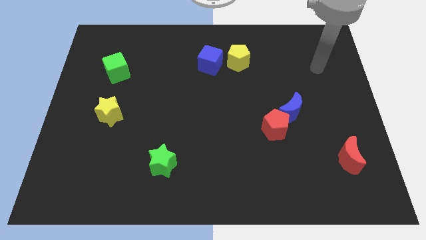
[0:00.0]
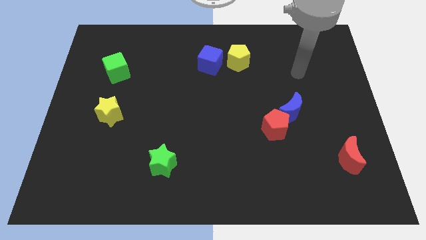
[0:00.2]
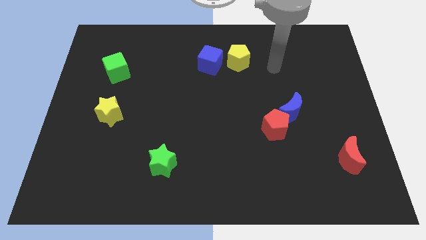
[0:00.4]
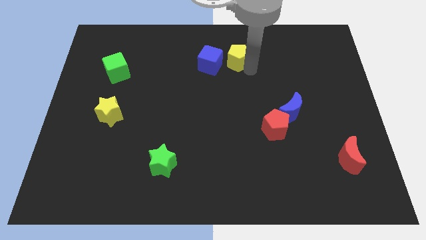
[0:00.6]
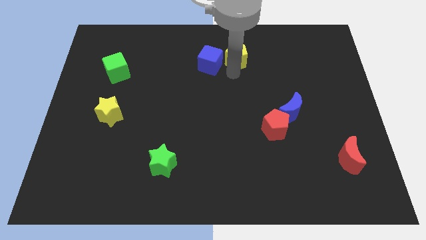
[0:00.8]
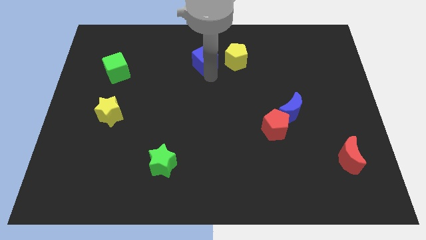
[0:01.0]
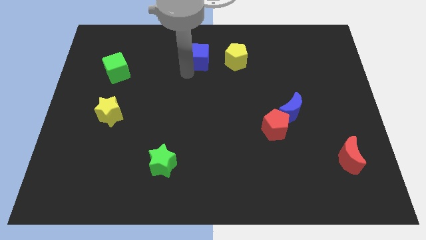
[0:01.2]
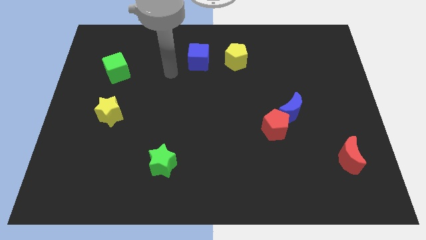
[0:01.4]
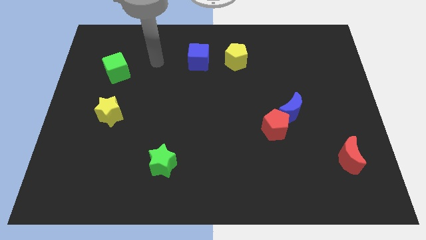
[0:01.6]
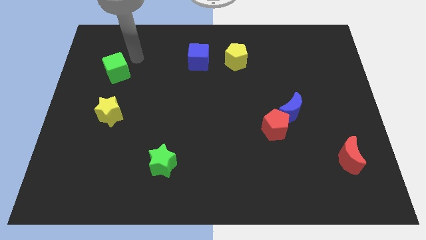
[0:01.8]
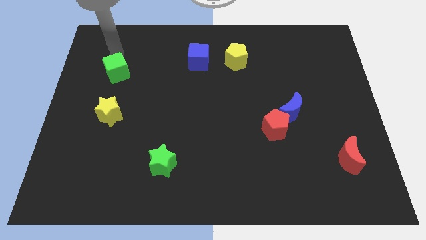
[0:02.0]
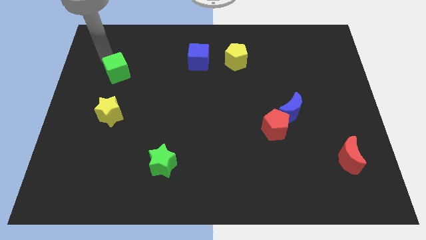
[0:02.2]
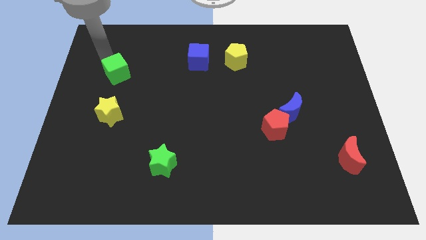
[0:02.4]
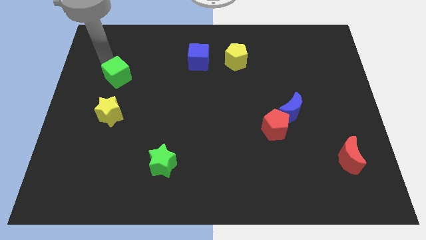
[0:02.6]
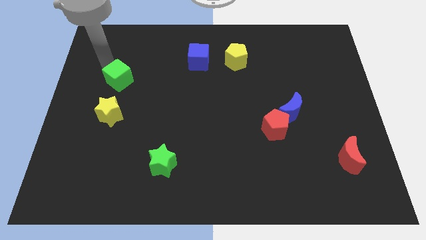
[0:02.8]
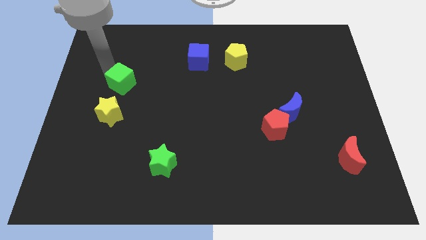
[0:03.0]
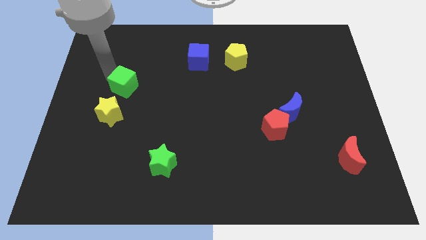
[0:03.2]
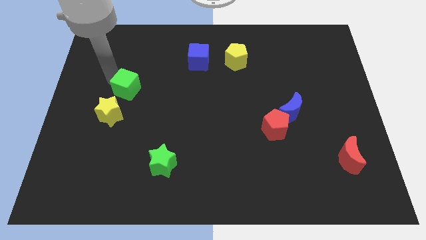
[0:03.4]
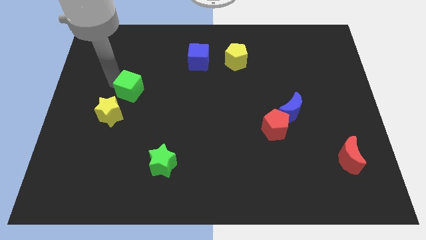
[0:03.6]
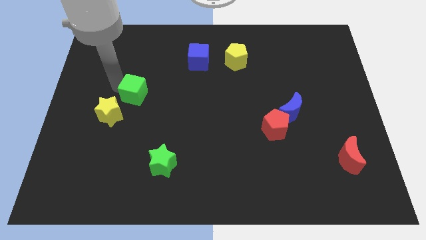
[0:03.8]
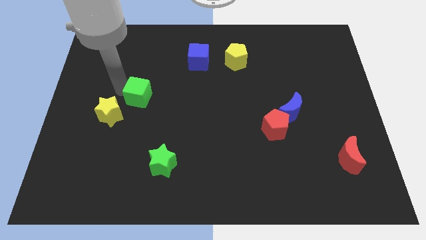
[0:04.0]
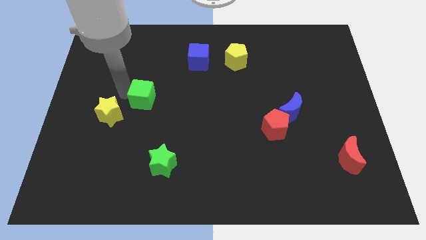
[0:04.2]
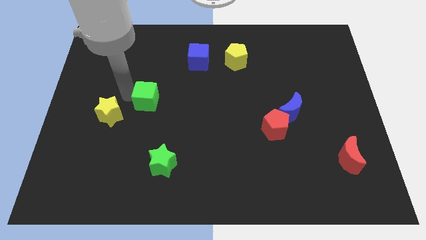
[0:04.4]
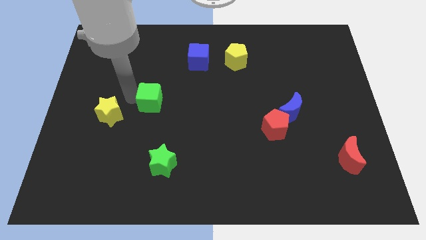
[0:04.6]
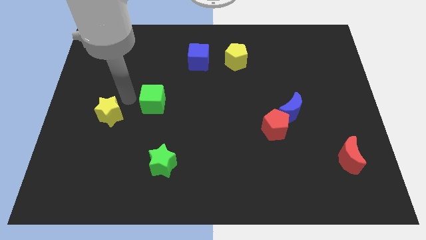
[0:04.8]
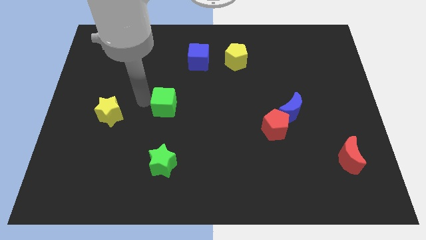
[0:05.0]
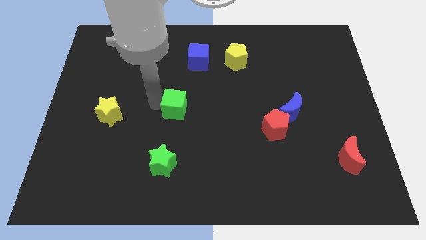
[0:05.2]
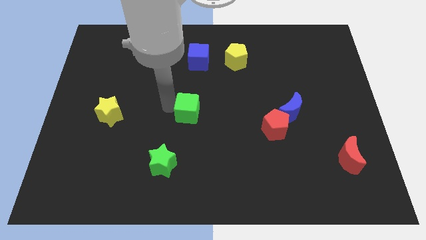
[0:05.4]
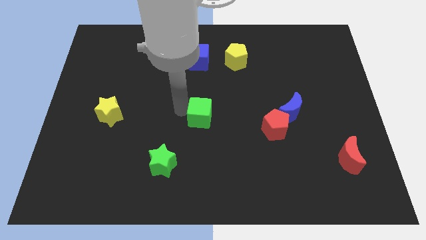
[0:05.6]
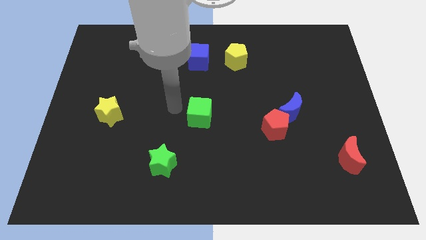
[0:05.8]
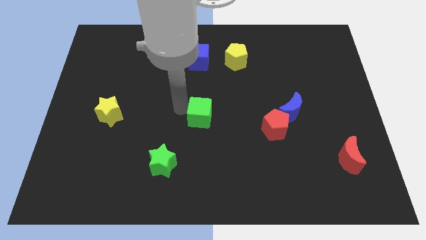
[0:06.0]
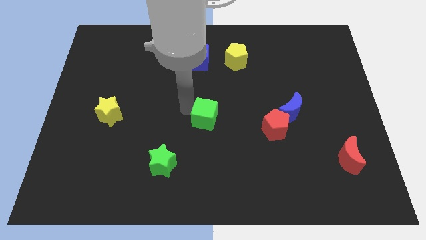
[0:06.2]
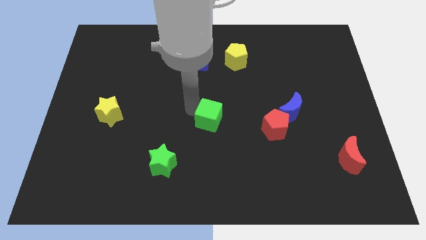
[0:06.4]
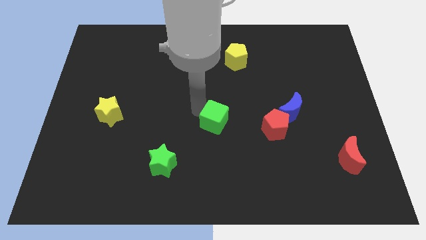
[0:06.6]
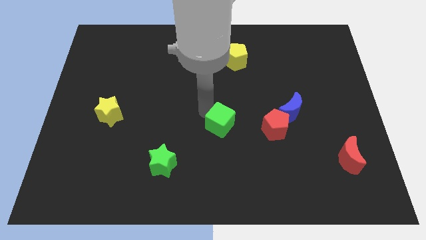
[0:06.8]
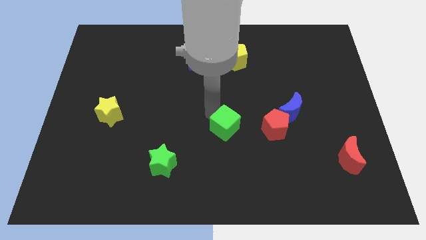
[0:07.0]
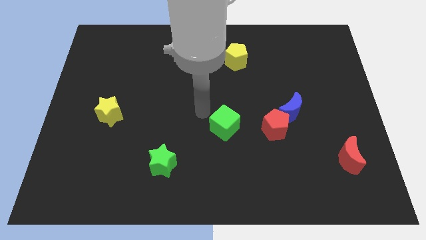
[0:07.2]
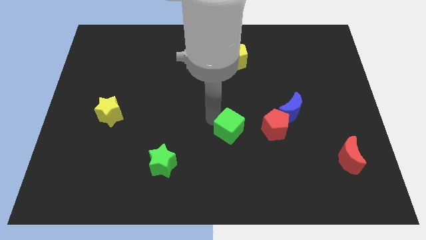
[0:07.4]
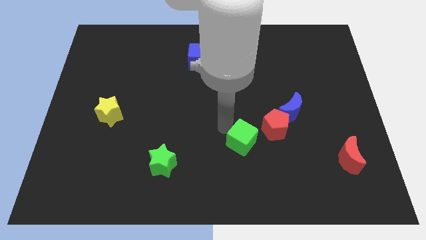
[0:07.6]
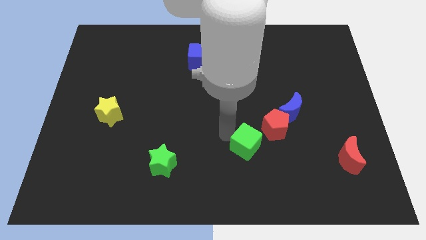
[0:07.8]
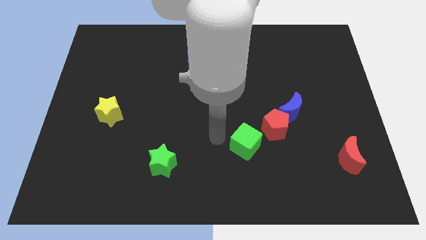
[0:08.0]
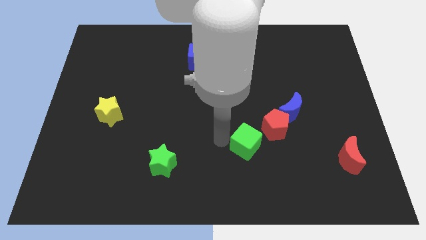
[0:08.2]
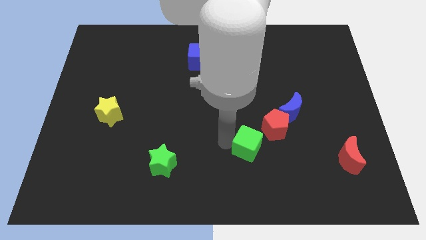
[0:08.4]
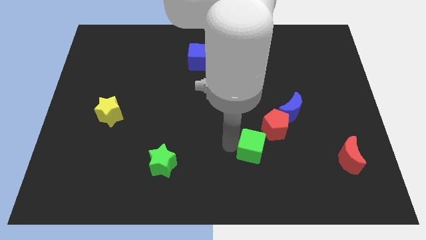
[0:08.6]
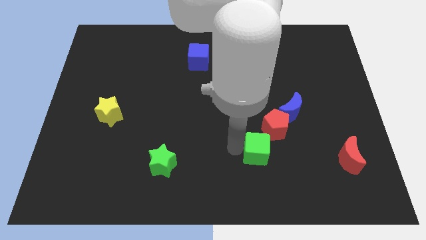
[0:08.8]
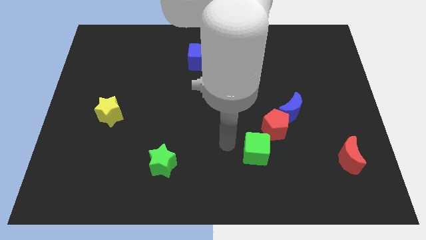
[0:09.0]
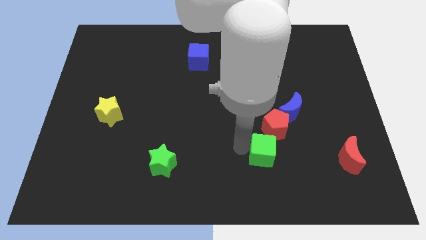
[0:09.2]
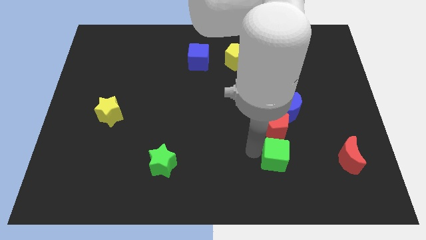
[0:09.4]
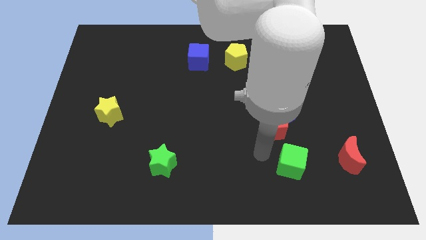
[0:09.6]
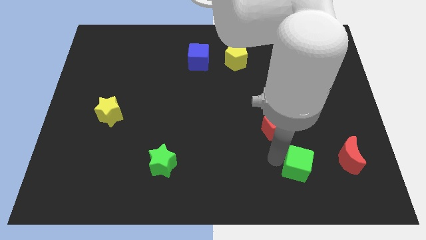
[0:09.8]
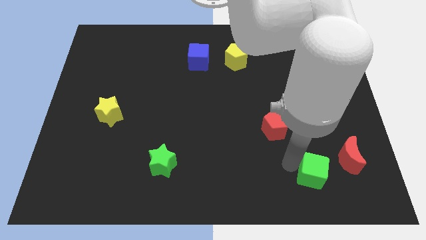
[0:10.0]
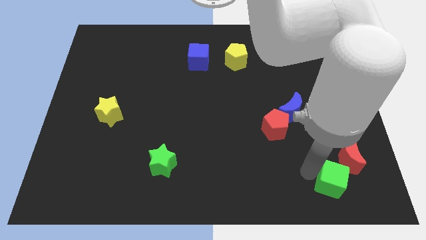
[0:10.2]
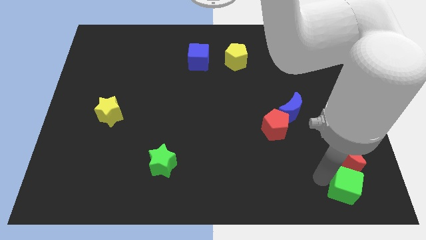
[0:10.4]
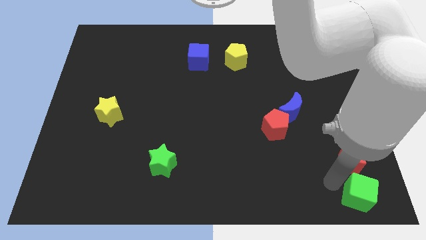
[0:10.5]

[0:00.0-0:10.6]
push the green cube to the bottom right corner

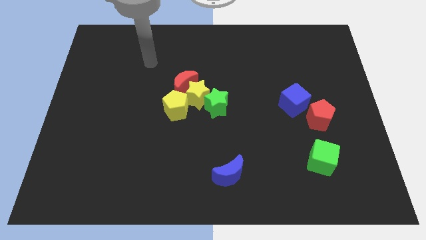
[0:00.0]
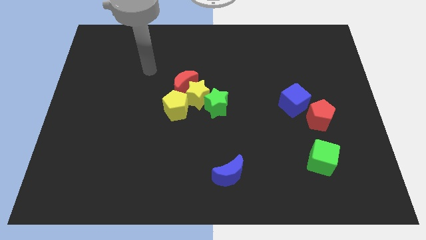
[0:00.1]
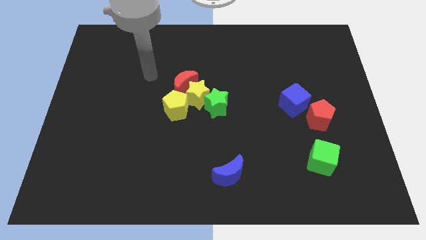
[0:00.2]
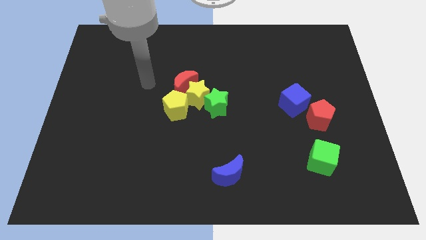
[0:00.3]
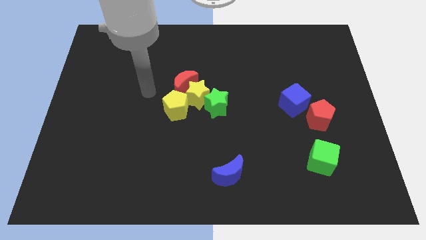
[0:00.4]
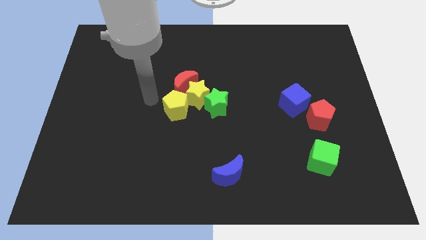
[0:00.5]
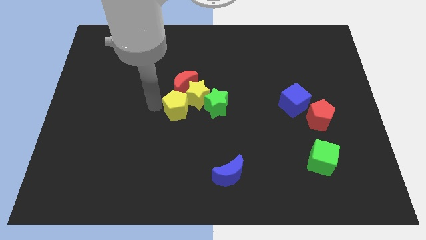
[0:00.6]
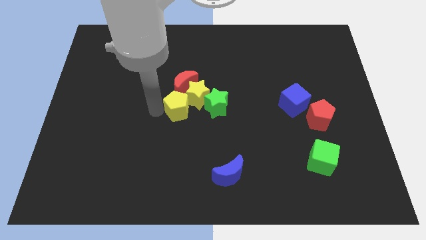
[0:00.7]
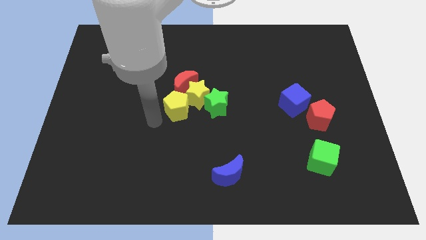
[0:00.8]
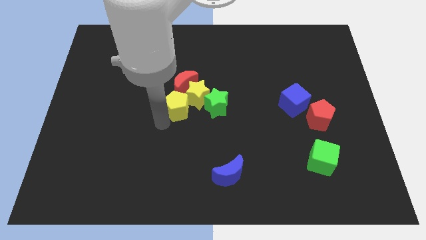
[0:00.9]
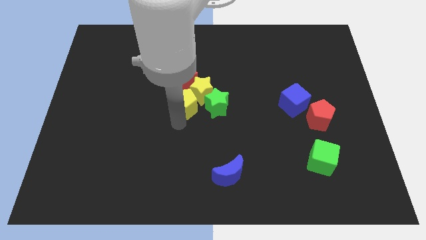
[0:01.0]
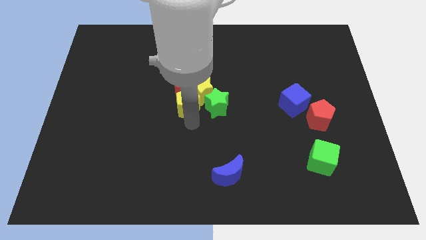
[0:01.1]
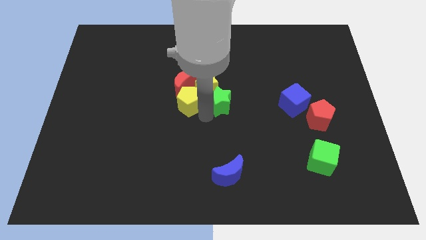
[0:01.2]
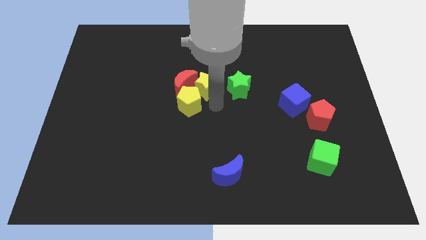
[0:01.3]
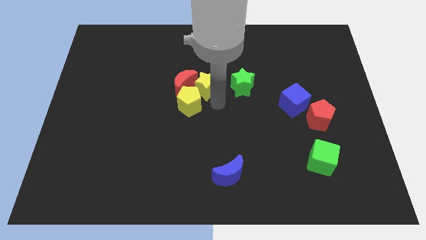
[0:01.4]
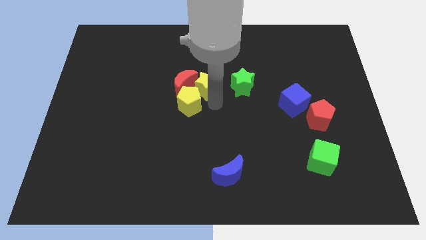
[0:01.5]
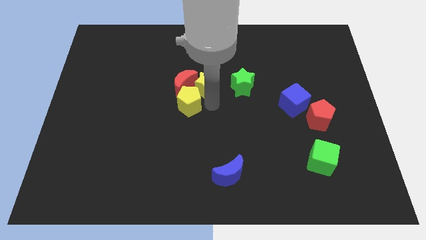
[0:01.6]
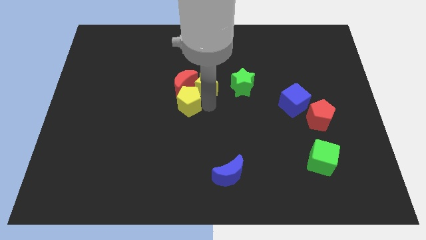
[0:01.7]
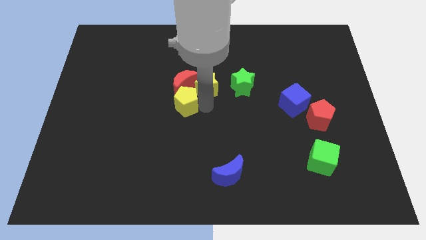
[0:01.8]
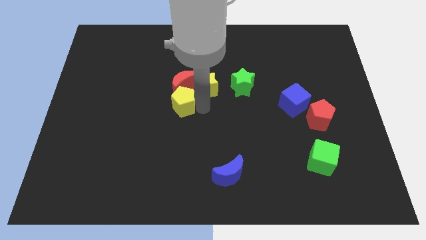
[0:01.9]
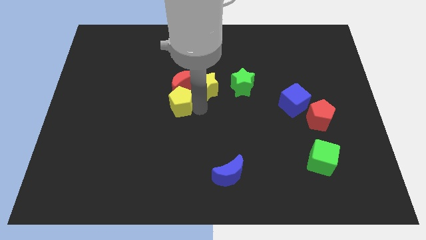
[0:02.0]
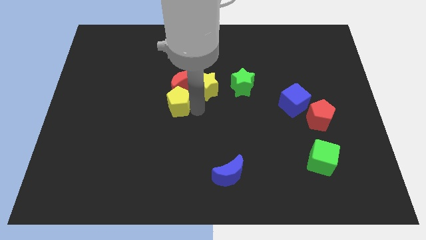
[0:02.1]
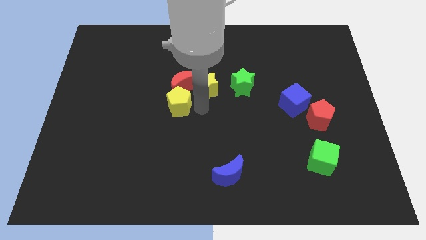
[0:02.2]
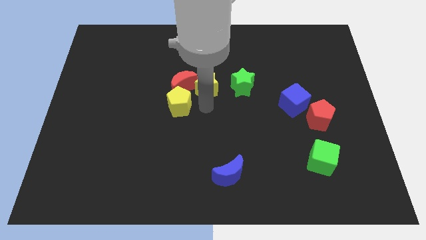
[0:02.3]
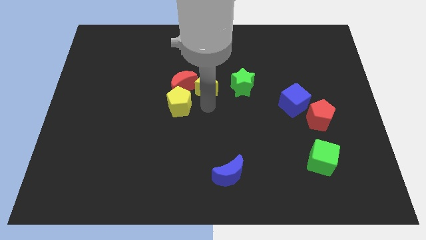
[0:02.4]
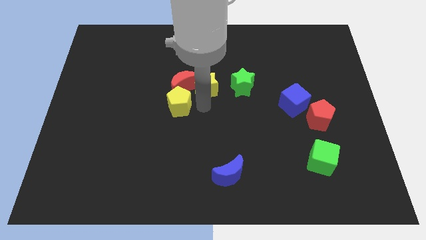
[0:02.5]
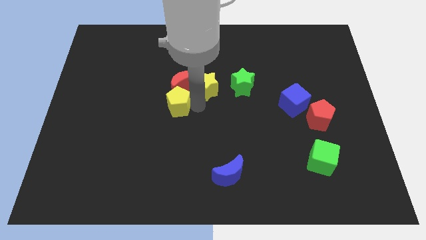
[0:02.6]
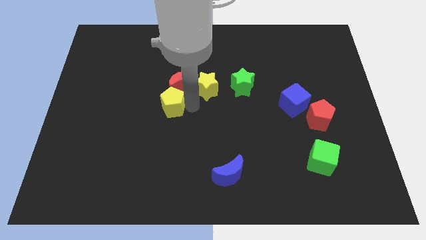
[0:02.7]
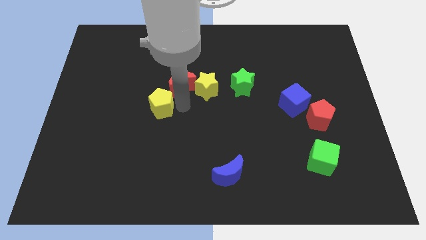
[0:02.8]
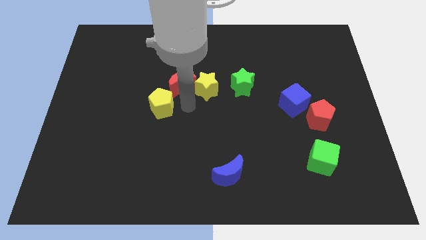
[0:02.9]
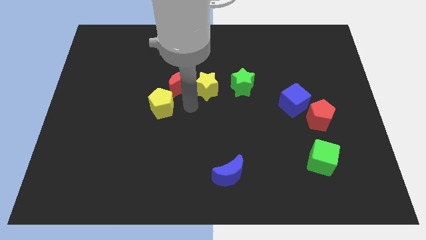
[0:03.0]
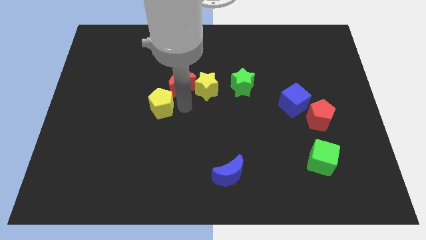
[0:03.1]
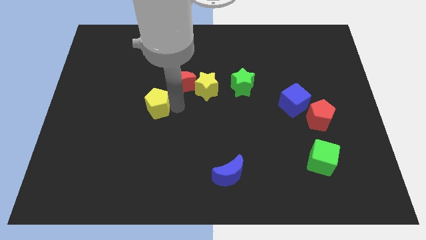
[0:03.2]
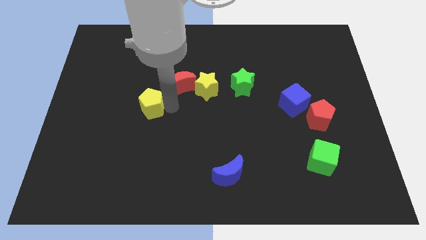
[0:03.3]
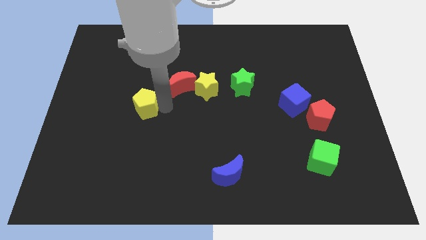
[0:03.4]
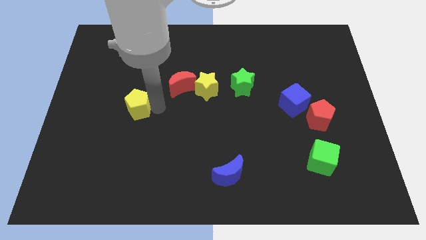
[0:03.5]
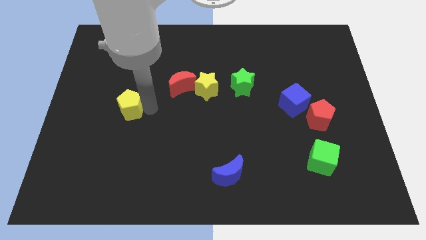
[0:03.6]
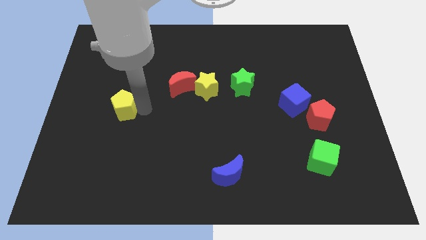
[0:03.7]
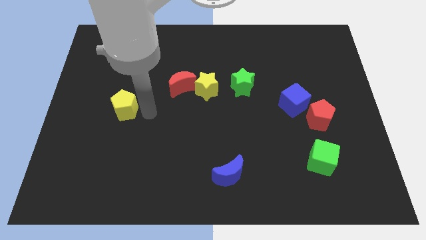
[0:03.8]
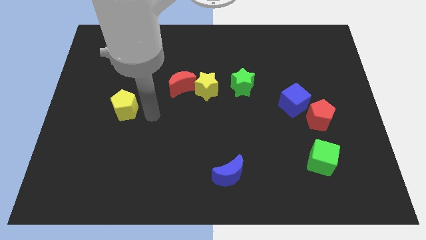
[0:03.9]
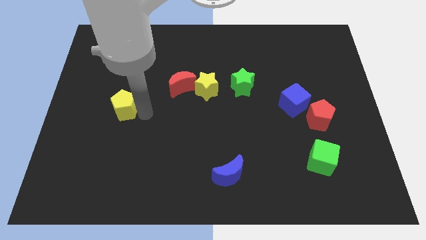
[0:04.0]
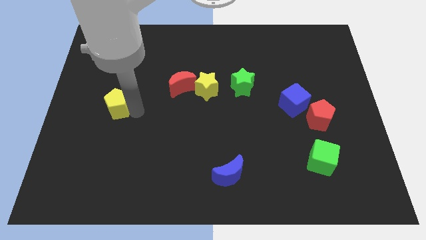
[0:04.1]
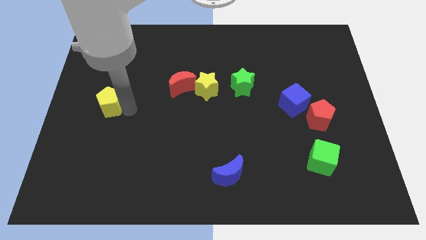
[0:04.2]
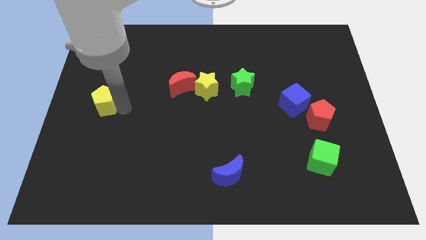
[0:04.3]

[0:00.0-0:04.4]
move the yellow pentagon to the left side
